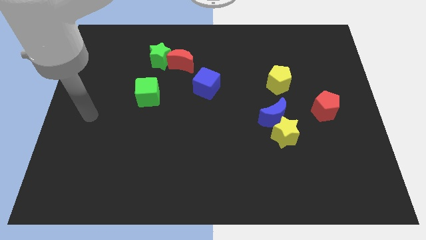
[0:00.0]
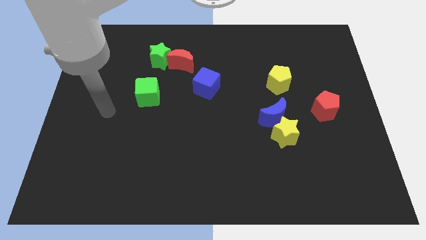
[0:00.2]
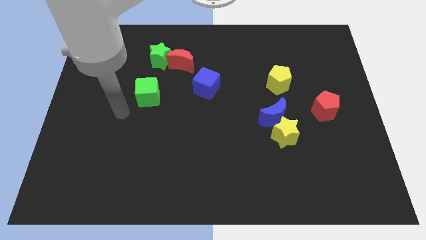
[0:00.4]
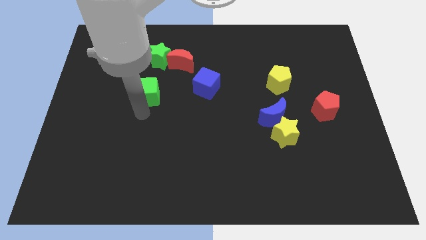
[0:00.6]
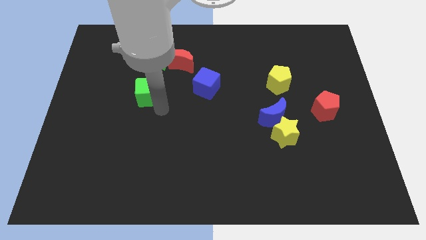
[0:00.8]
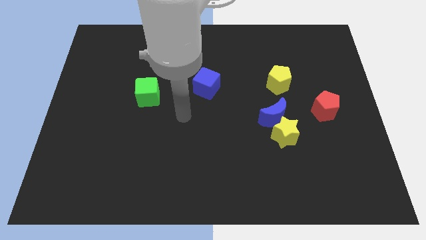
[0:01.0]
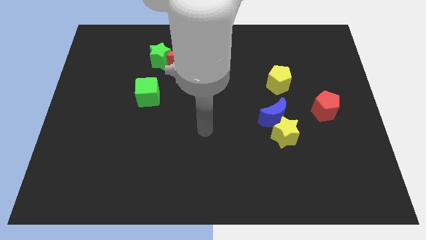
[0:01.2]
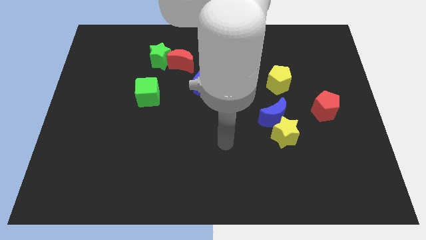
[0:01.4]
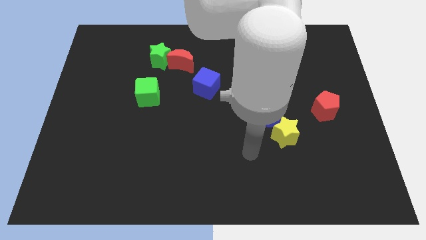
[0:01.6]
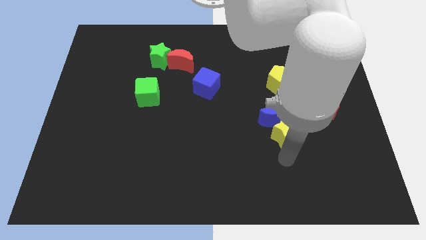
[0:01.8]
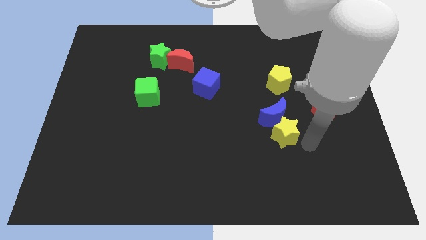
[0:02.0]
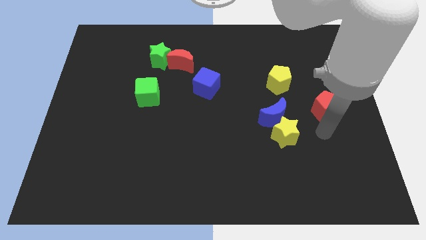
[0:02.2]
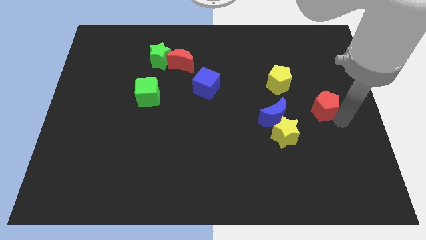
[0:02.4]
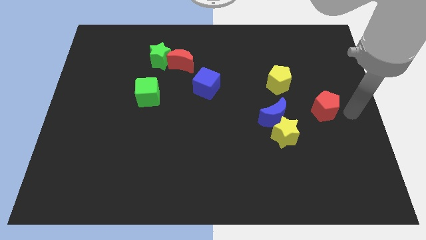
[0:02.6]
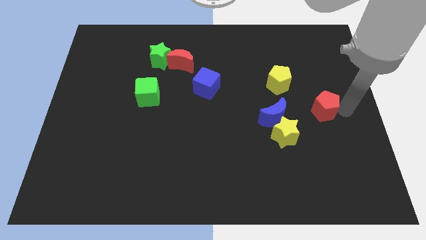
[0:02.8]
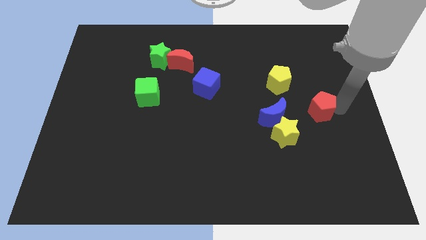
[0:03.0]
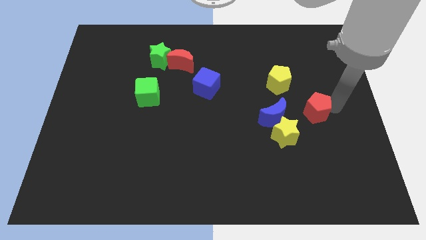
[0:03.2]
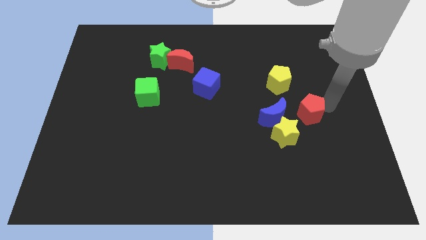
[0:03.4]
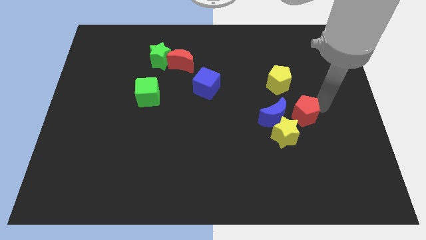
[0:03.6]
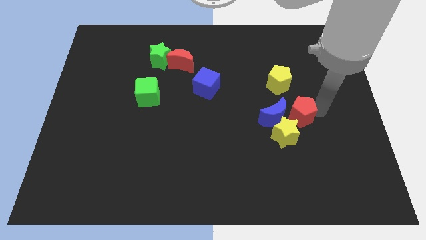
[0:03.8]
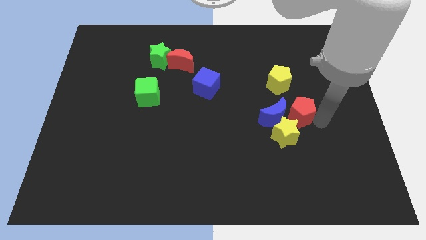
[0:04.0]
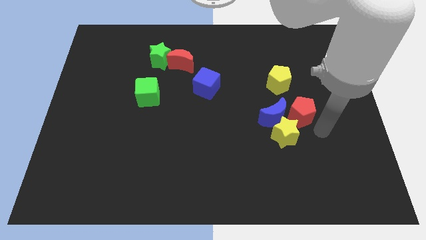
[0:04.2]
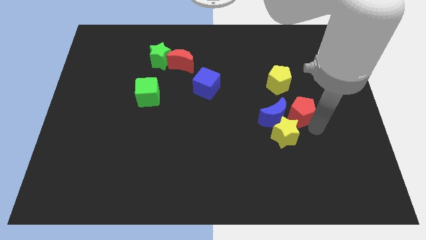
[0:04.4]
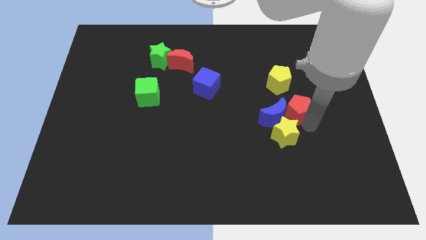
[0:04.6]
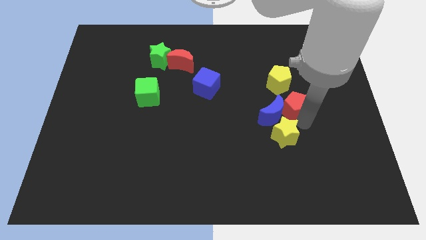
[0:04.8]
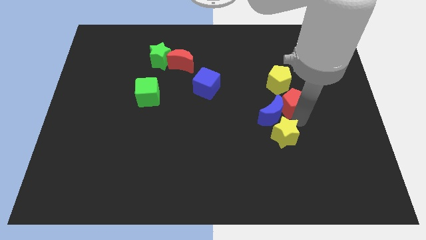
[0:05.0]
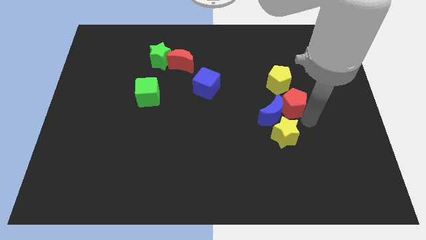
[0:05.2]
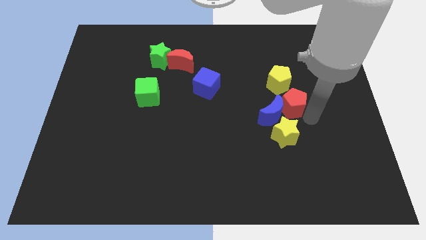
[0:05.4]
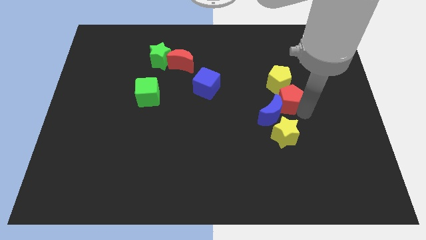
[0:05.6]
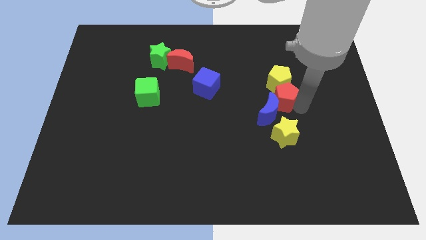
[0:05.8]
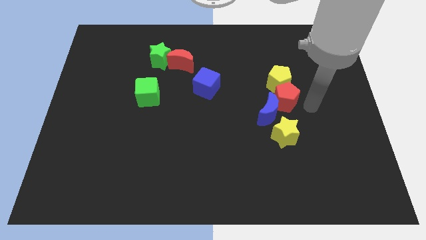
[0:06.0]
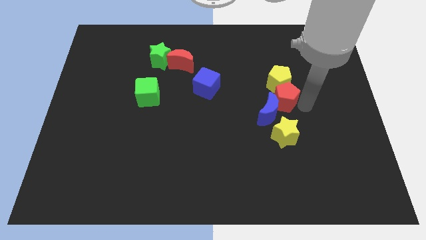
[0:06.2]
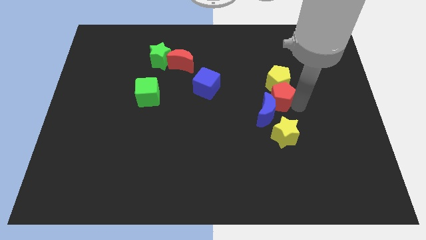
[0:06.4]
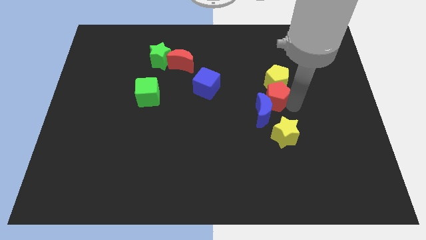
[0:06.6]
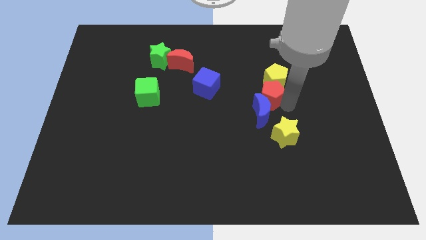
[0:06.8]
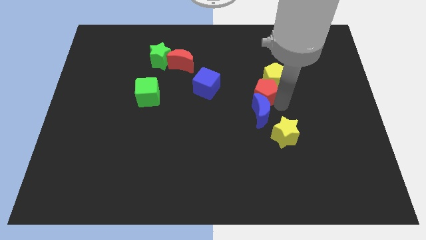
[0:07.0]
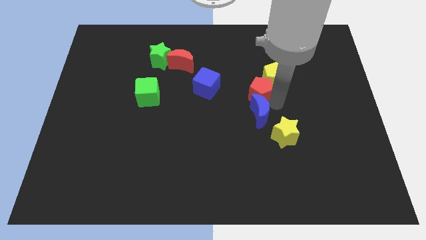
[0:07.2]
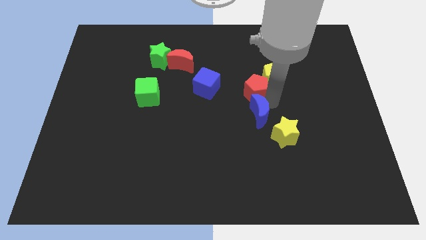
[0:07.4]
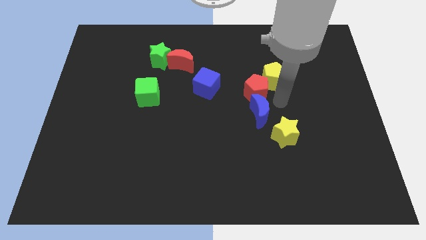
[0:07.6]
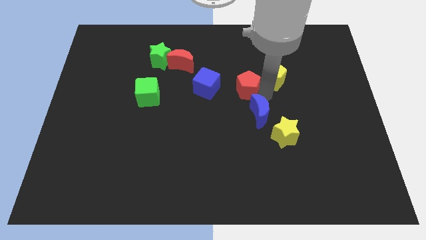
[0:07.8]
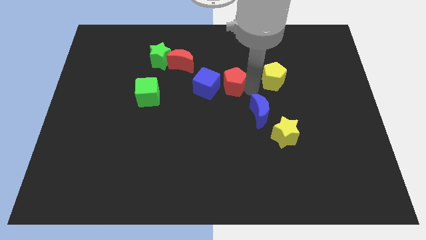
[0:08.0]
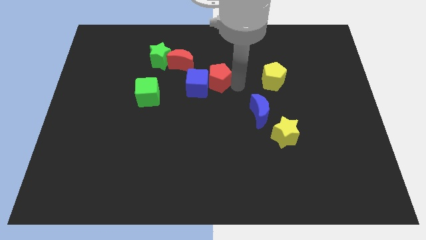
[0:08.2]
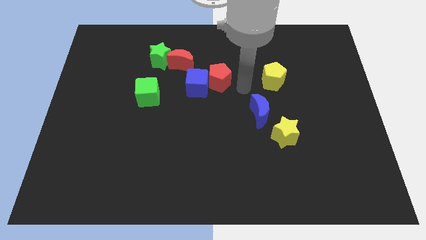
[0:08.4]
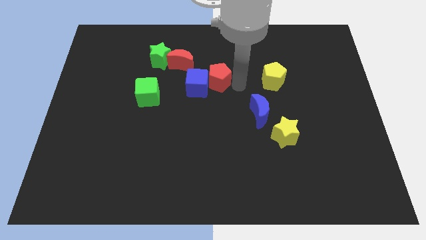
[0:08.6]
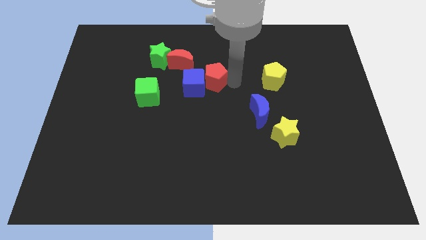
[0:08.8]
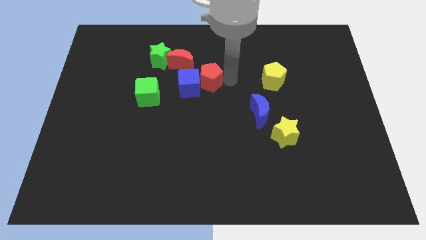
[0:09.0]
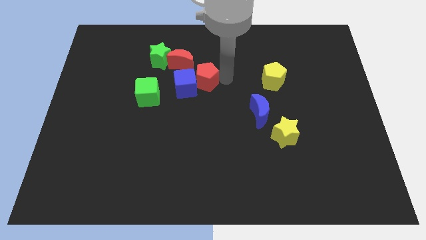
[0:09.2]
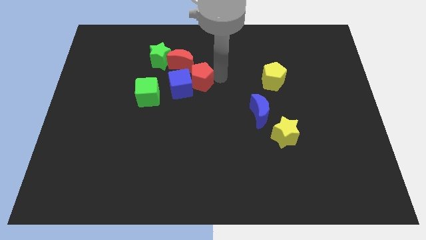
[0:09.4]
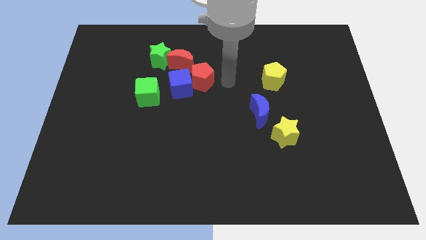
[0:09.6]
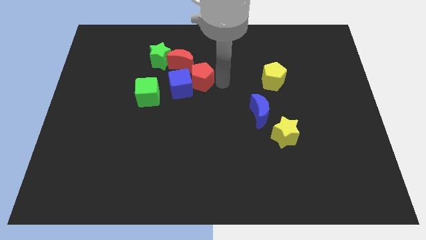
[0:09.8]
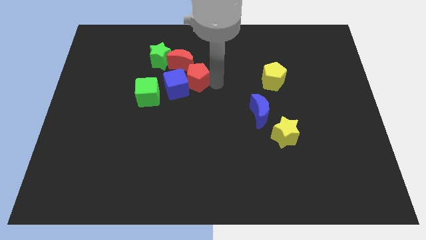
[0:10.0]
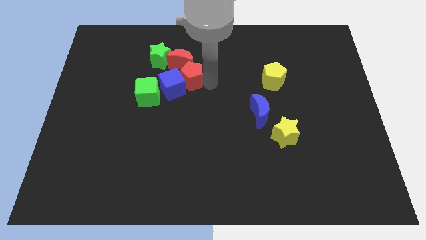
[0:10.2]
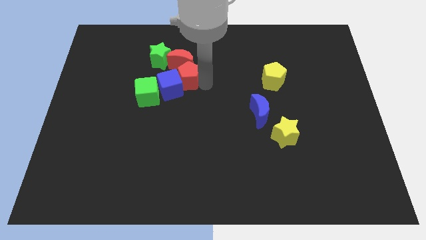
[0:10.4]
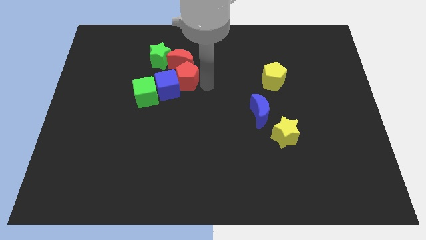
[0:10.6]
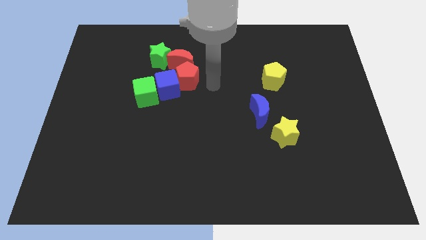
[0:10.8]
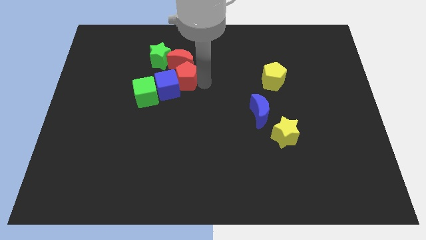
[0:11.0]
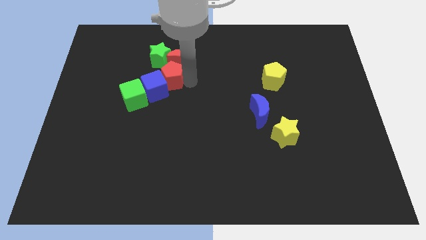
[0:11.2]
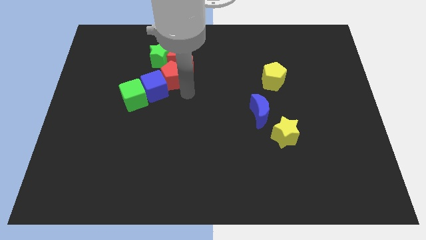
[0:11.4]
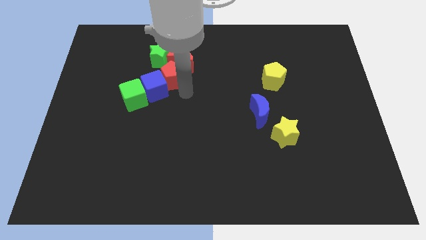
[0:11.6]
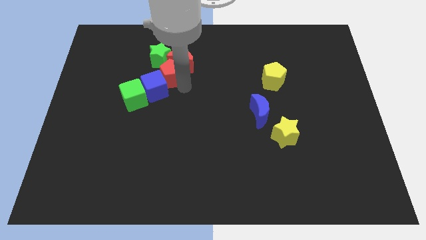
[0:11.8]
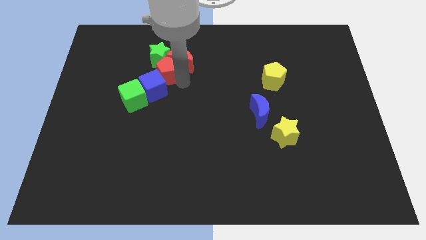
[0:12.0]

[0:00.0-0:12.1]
move the red pentagon close to the green star
